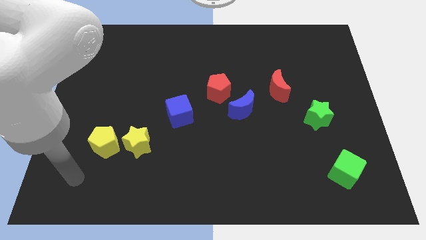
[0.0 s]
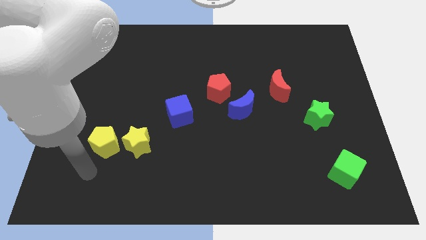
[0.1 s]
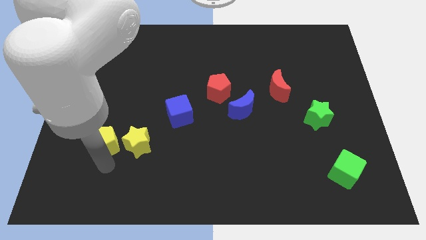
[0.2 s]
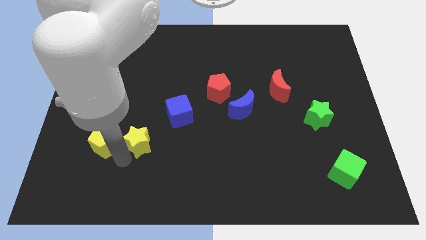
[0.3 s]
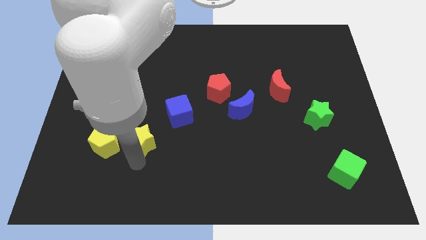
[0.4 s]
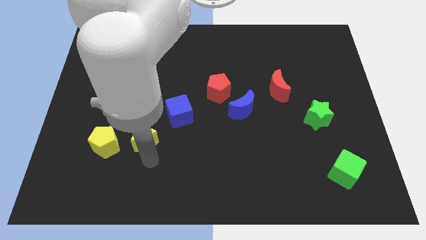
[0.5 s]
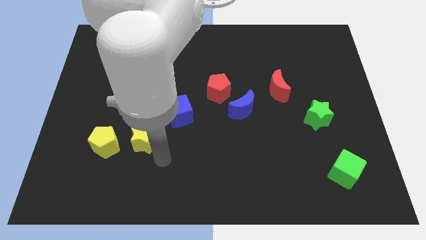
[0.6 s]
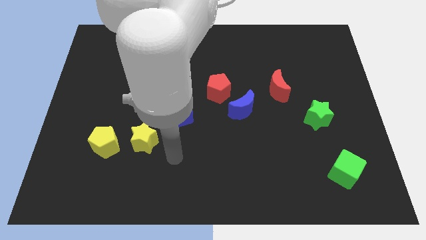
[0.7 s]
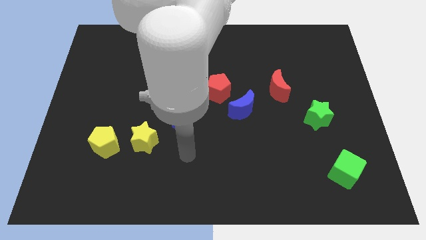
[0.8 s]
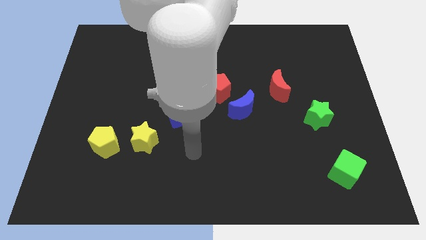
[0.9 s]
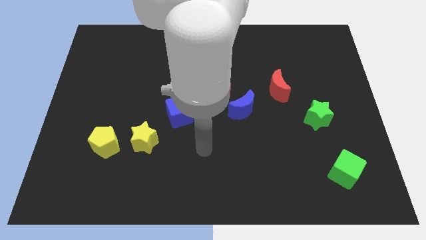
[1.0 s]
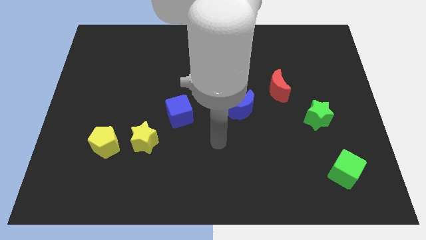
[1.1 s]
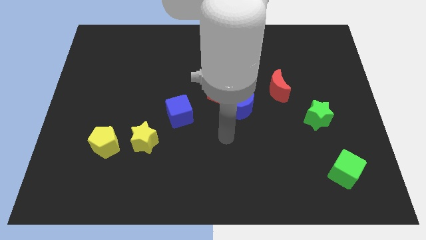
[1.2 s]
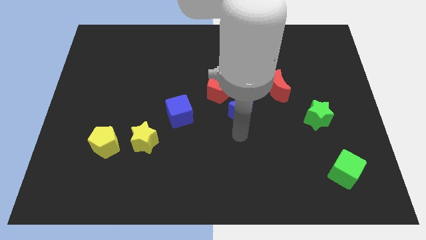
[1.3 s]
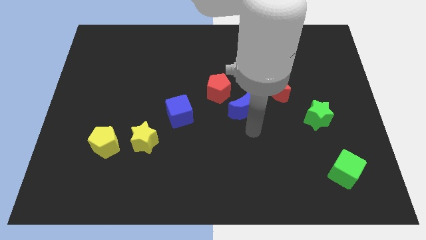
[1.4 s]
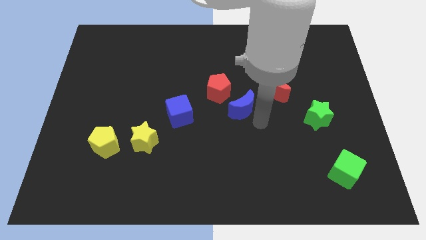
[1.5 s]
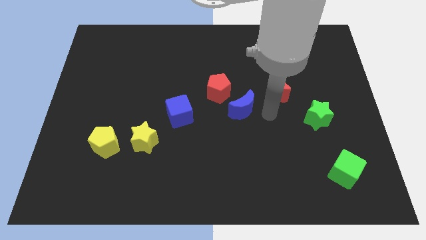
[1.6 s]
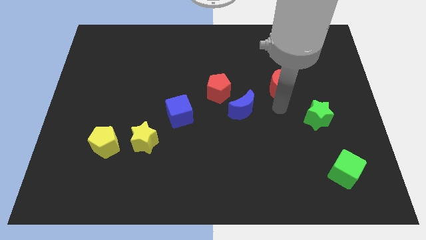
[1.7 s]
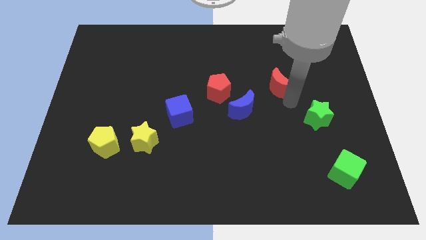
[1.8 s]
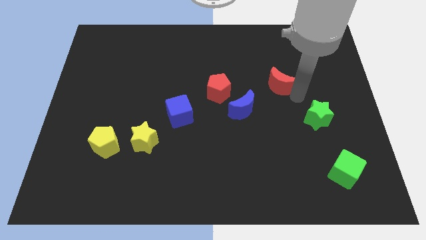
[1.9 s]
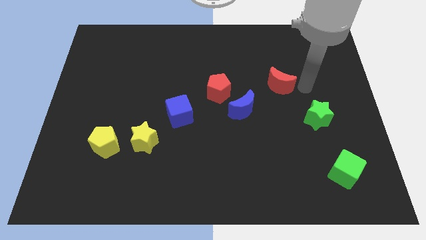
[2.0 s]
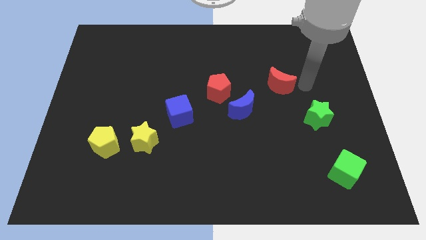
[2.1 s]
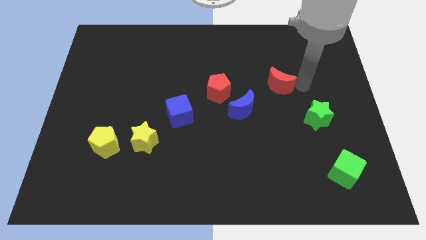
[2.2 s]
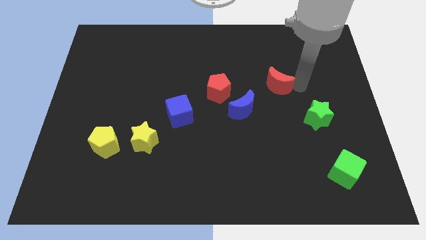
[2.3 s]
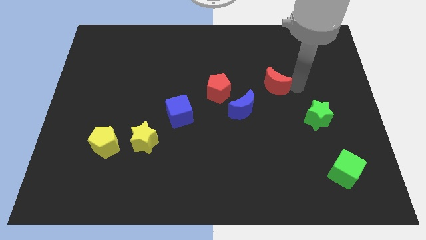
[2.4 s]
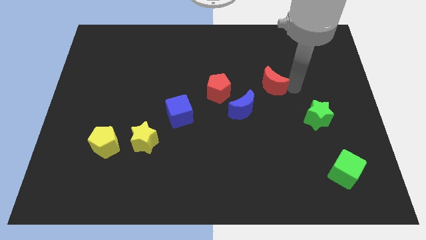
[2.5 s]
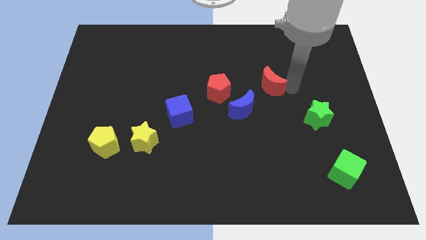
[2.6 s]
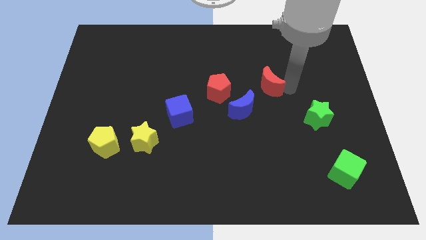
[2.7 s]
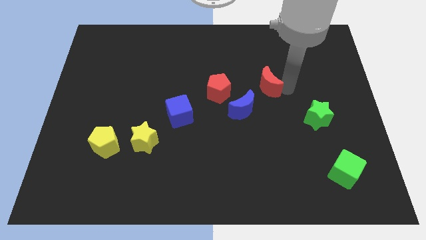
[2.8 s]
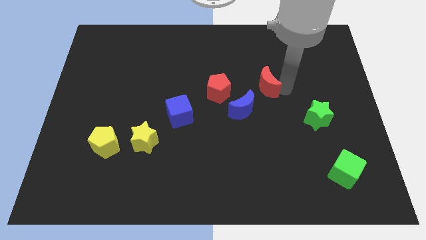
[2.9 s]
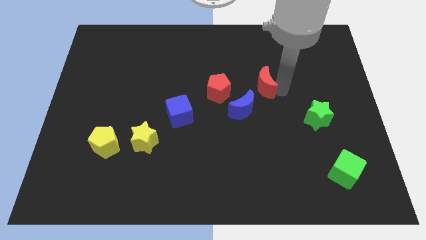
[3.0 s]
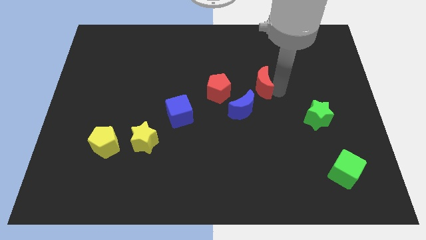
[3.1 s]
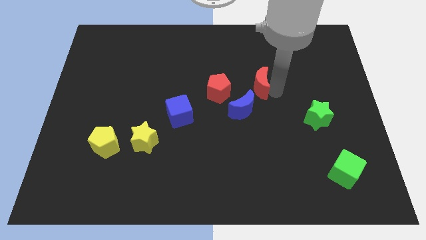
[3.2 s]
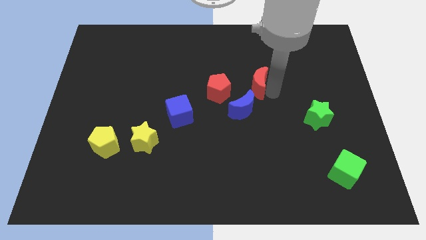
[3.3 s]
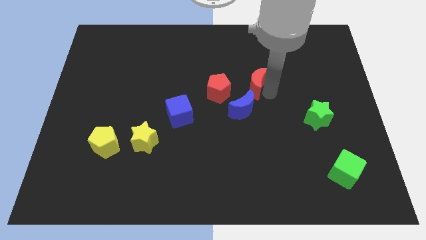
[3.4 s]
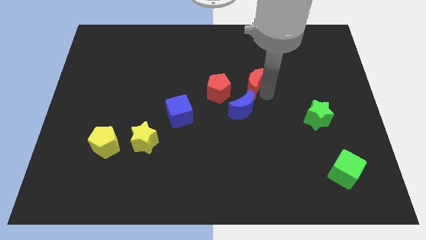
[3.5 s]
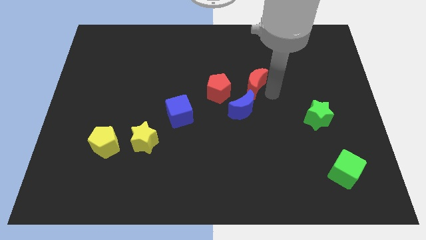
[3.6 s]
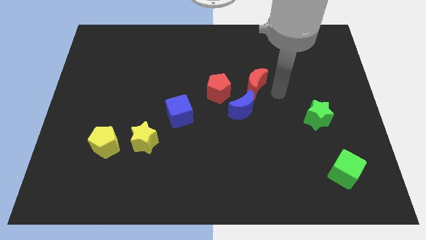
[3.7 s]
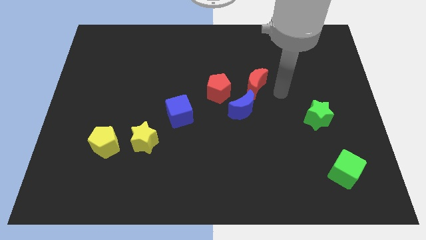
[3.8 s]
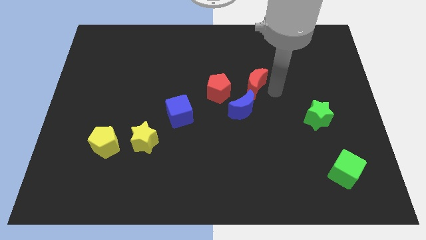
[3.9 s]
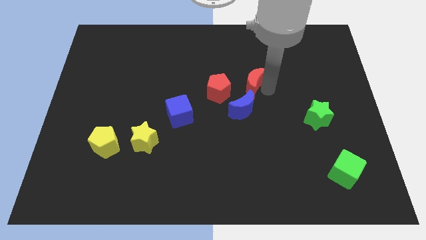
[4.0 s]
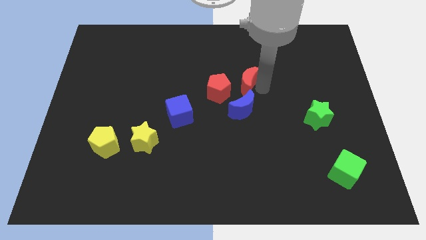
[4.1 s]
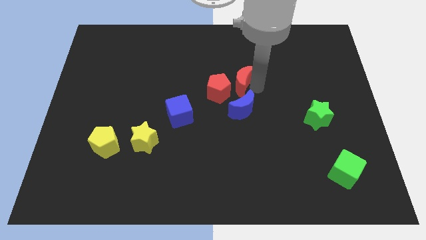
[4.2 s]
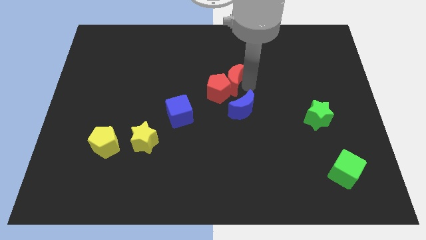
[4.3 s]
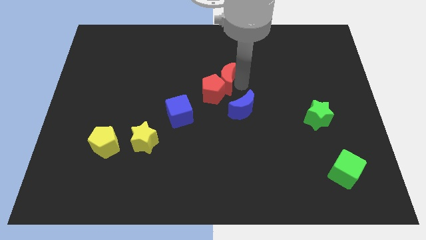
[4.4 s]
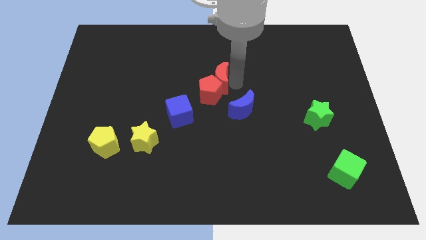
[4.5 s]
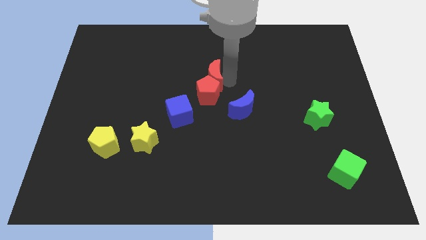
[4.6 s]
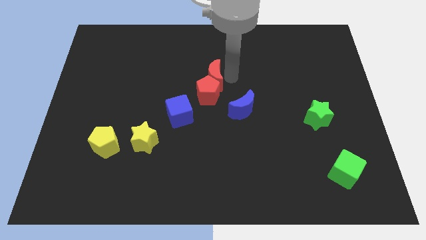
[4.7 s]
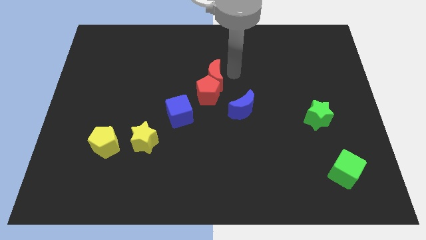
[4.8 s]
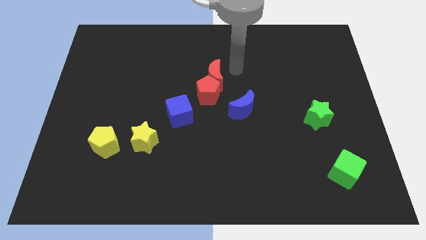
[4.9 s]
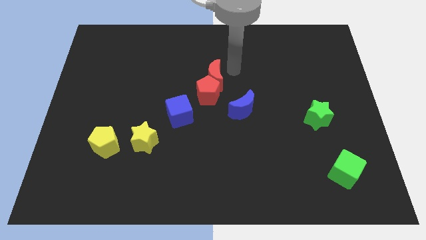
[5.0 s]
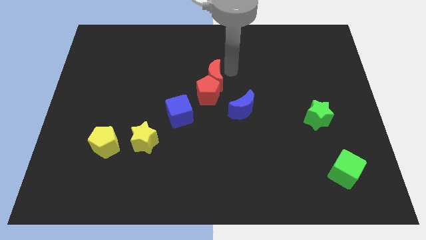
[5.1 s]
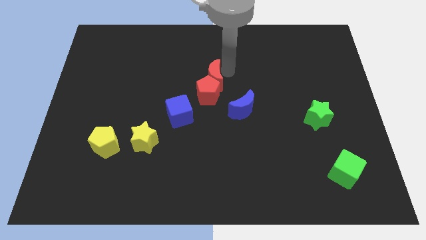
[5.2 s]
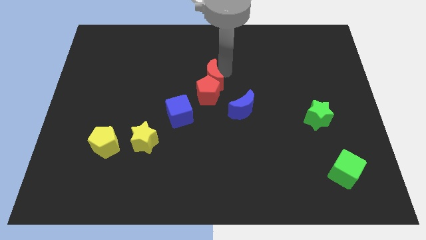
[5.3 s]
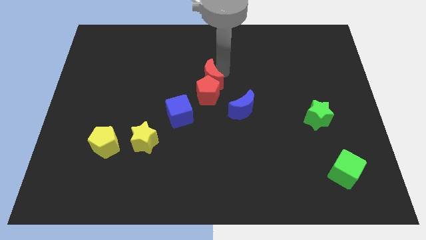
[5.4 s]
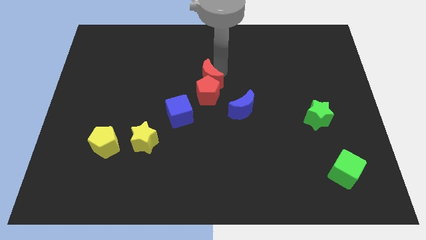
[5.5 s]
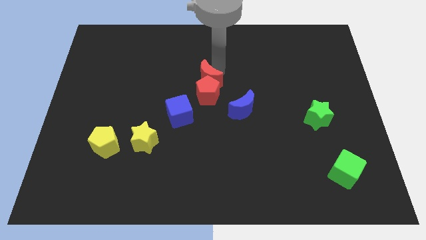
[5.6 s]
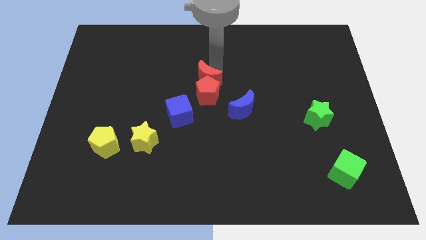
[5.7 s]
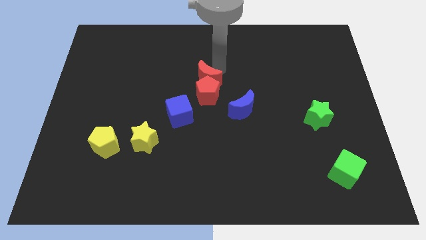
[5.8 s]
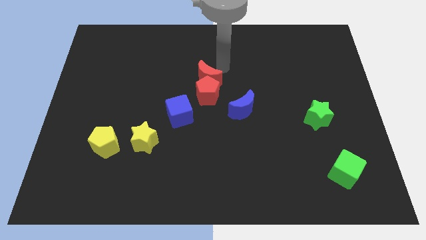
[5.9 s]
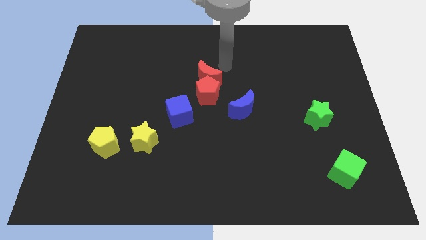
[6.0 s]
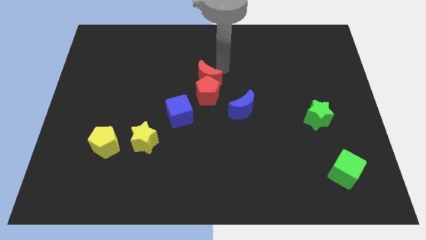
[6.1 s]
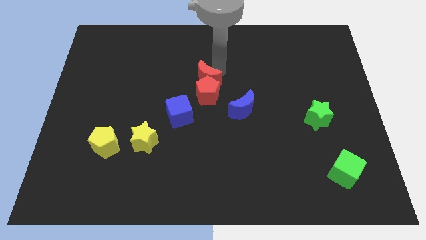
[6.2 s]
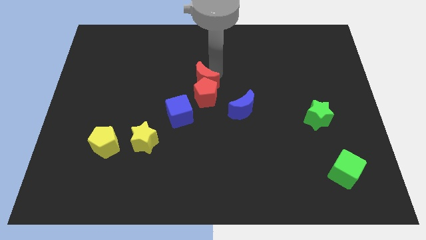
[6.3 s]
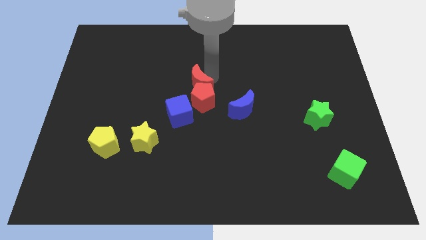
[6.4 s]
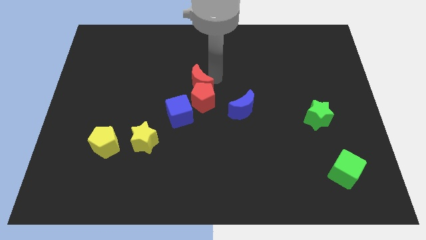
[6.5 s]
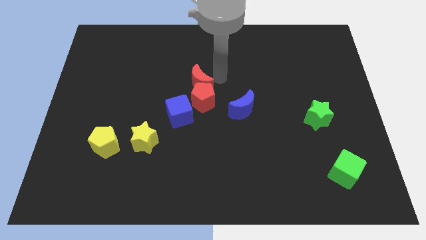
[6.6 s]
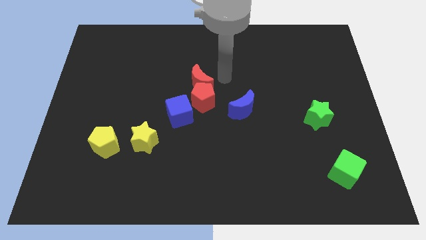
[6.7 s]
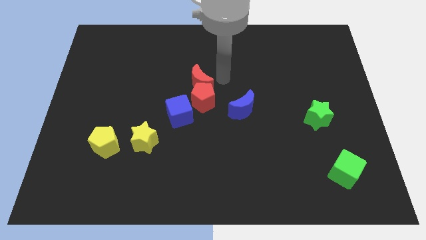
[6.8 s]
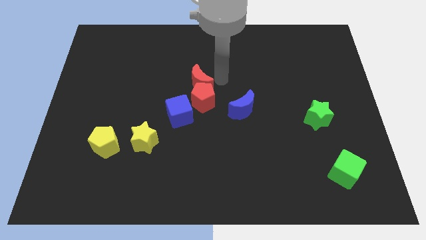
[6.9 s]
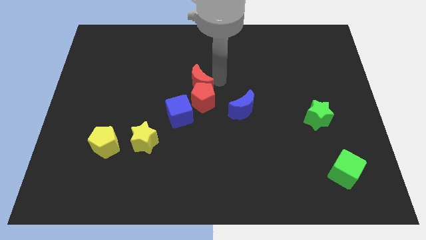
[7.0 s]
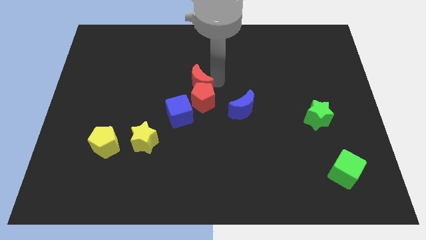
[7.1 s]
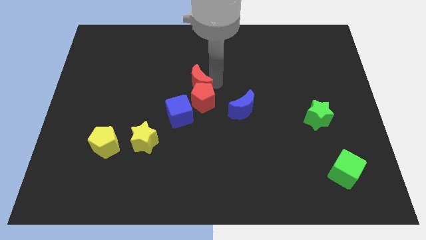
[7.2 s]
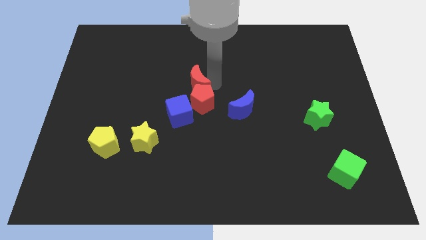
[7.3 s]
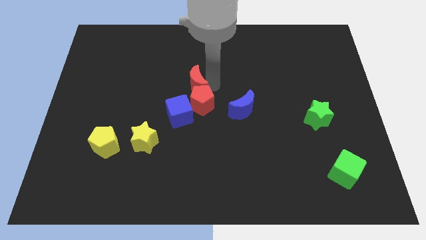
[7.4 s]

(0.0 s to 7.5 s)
push the red moon to the left

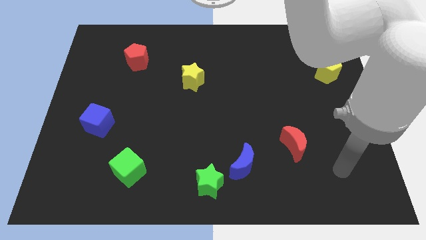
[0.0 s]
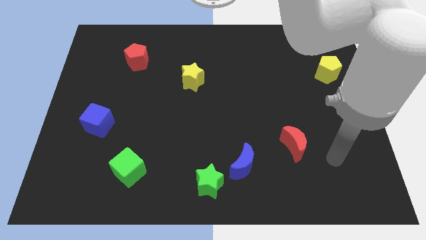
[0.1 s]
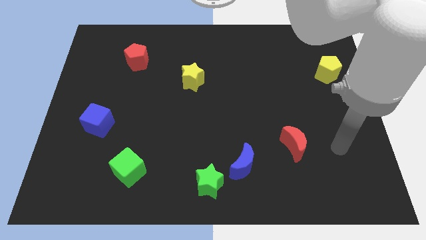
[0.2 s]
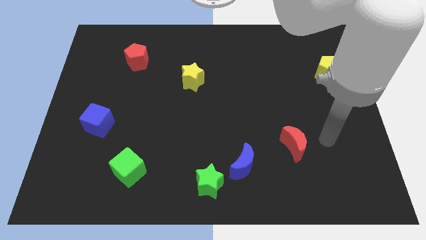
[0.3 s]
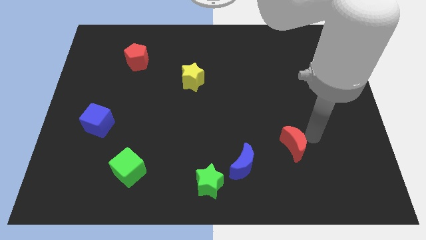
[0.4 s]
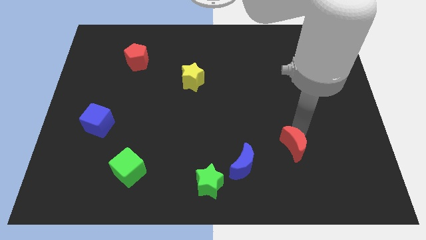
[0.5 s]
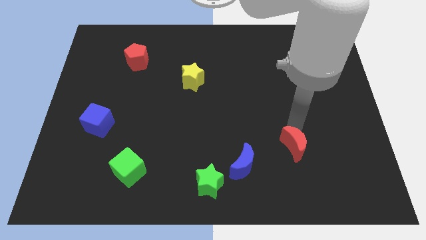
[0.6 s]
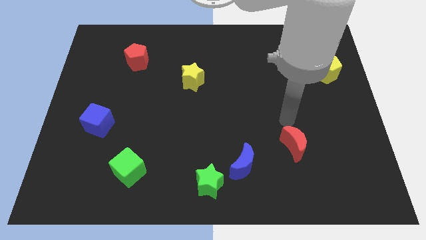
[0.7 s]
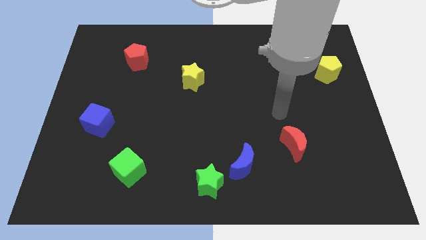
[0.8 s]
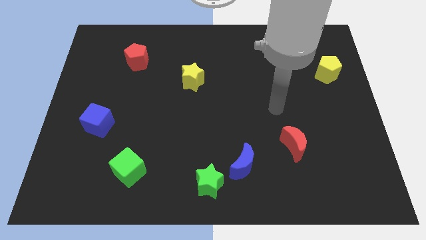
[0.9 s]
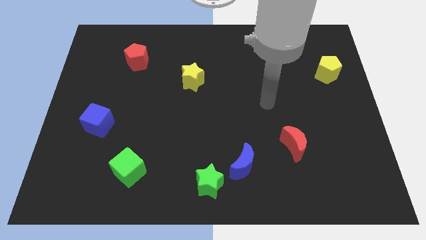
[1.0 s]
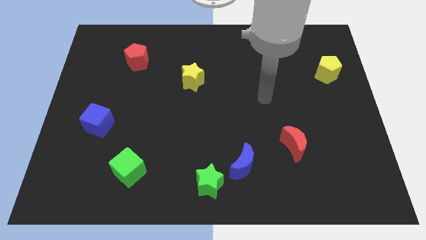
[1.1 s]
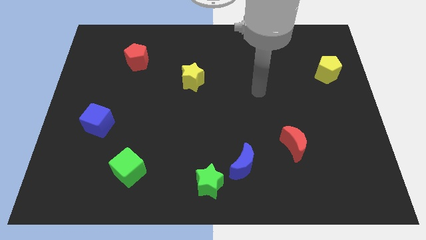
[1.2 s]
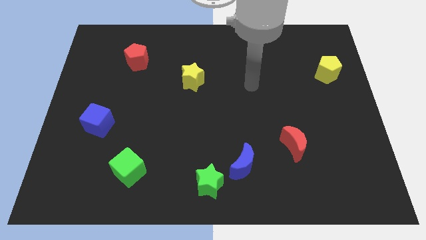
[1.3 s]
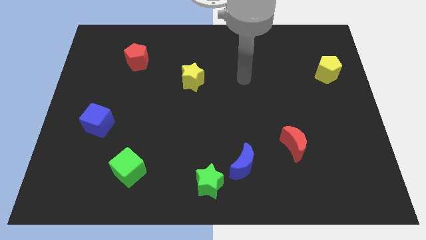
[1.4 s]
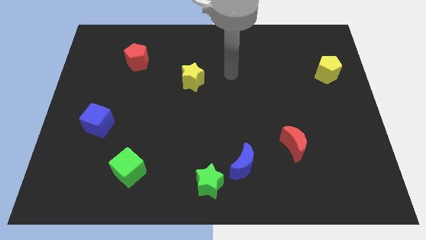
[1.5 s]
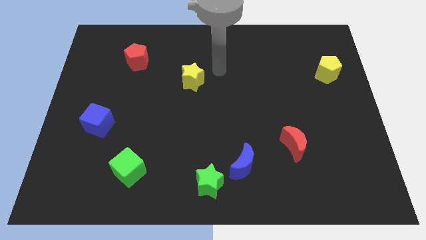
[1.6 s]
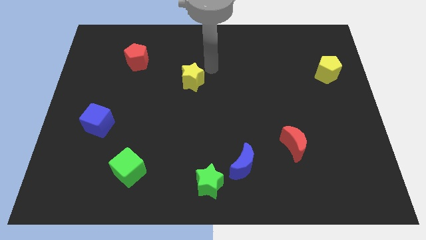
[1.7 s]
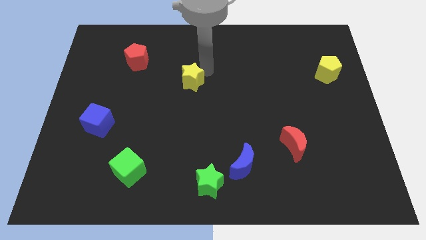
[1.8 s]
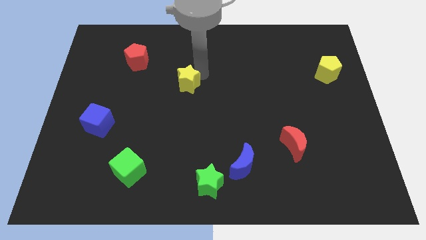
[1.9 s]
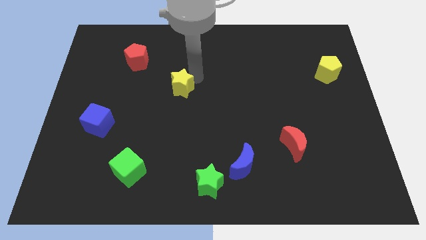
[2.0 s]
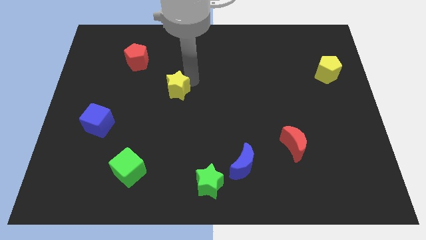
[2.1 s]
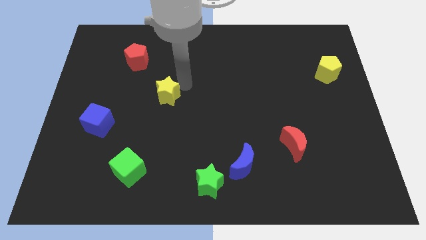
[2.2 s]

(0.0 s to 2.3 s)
slightly slide the yellow star diagonally downwards and left
